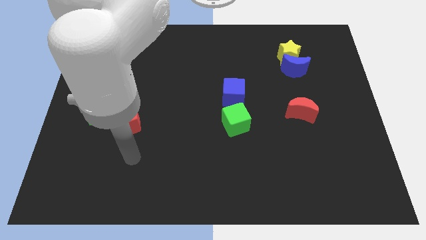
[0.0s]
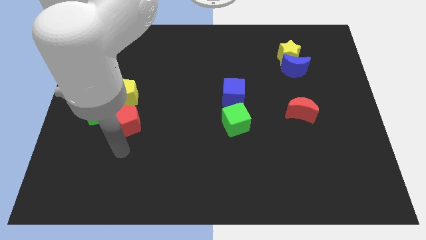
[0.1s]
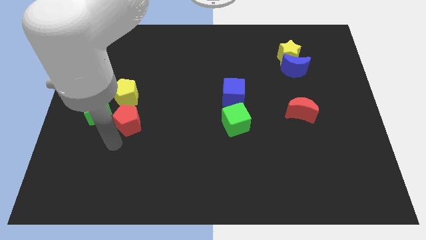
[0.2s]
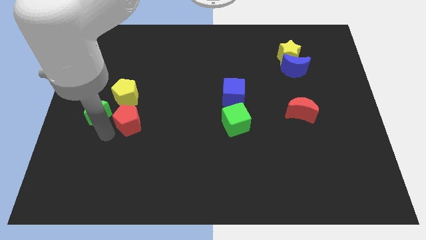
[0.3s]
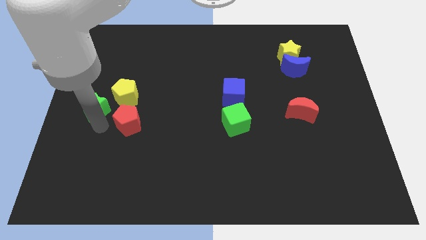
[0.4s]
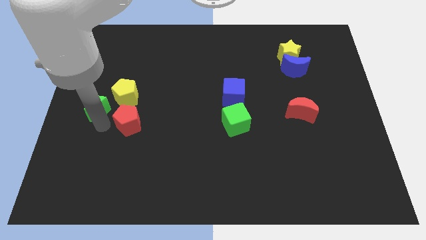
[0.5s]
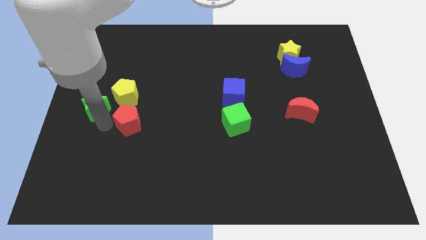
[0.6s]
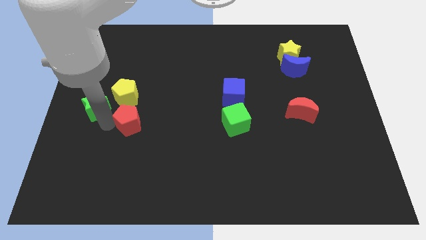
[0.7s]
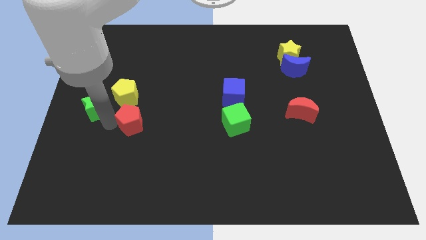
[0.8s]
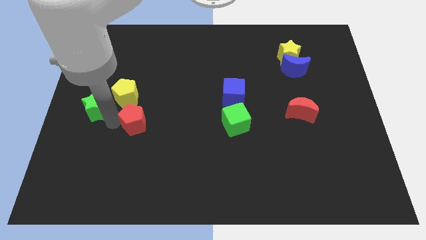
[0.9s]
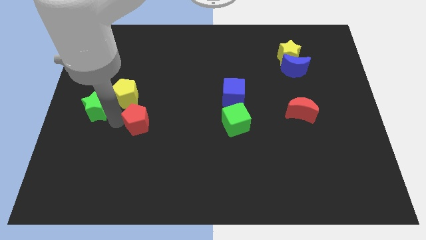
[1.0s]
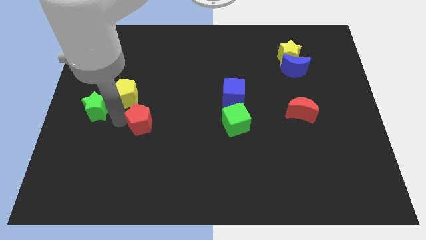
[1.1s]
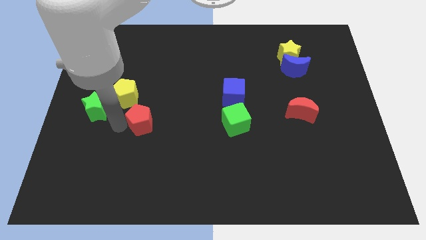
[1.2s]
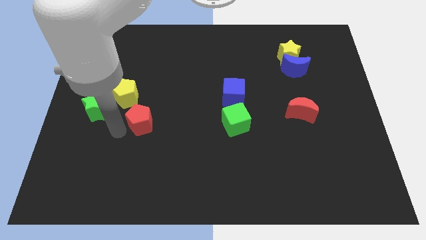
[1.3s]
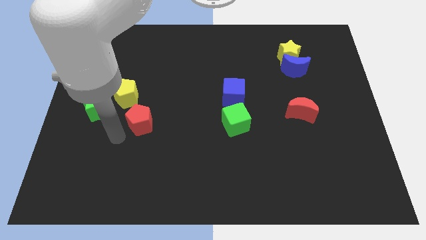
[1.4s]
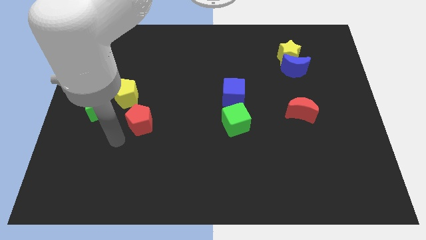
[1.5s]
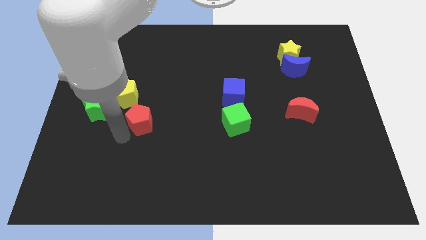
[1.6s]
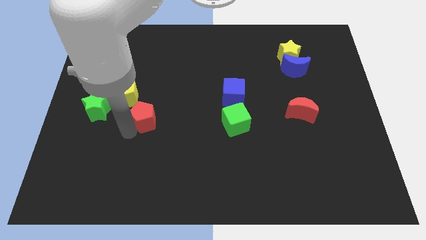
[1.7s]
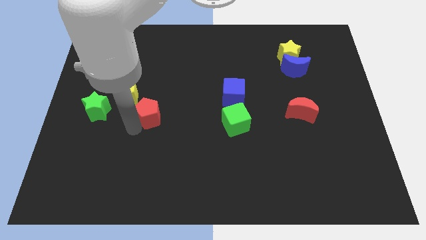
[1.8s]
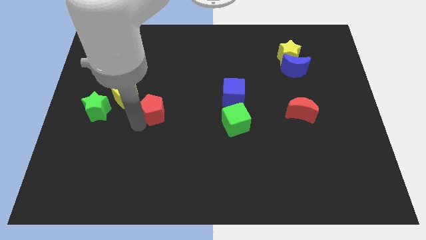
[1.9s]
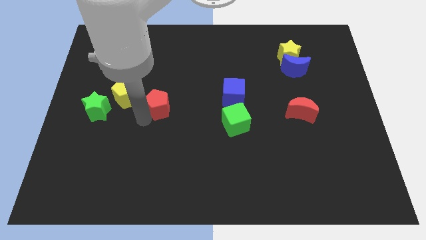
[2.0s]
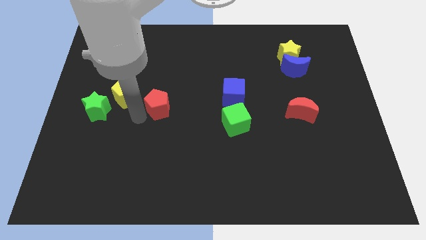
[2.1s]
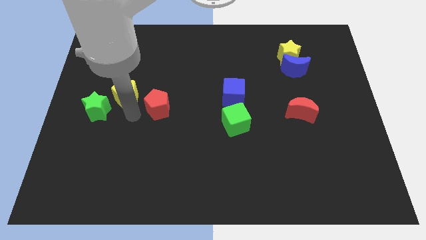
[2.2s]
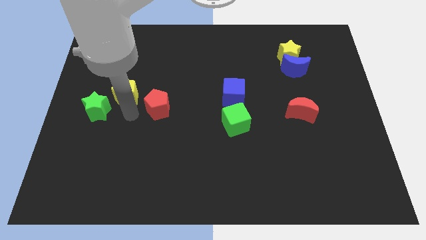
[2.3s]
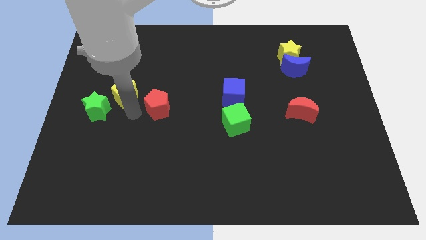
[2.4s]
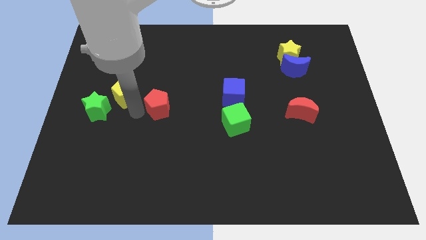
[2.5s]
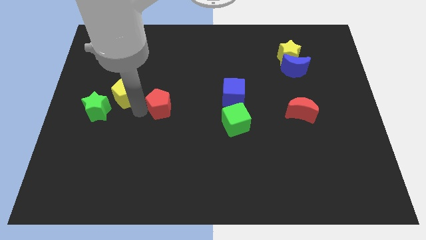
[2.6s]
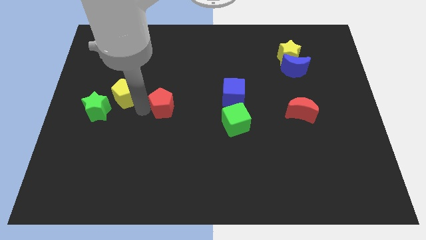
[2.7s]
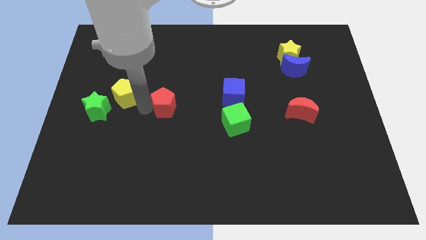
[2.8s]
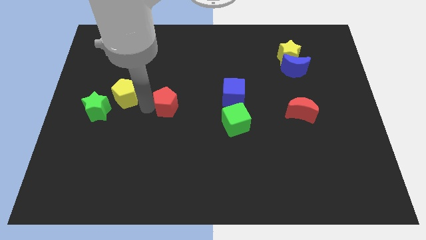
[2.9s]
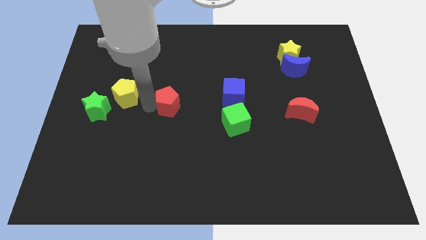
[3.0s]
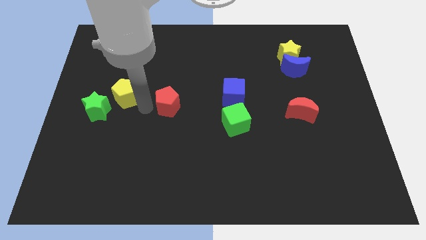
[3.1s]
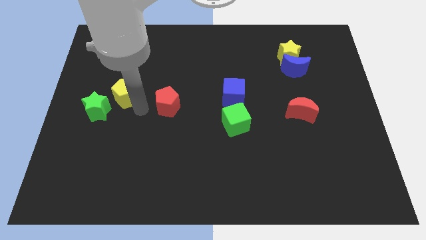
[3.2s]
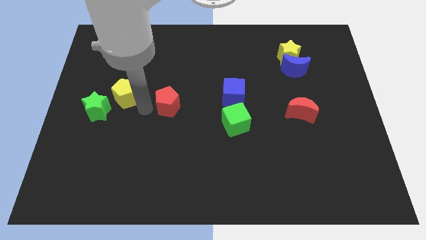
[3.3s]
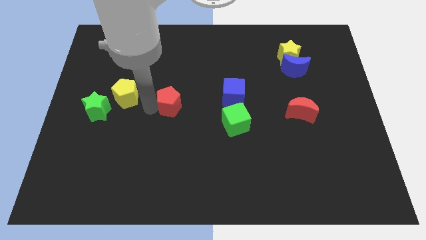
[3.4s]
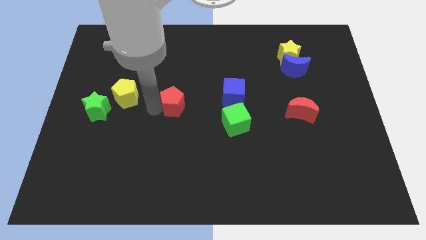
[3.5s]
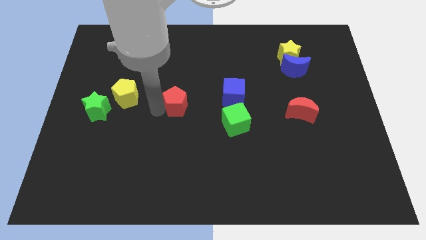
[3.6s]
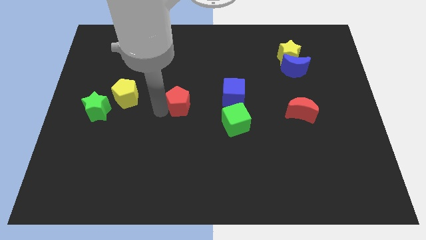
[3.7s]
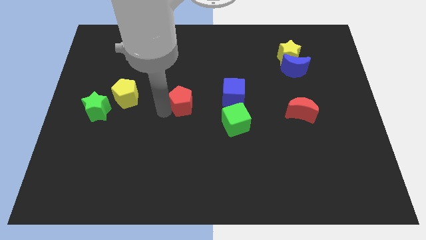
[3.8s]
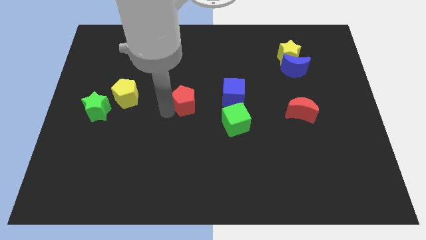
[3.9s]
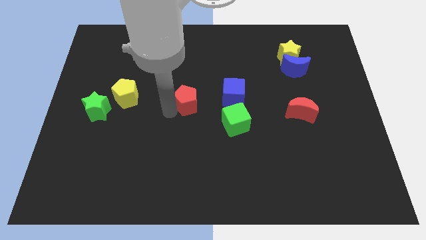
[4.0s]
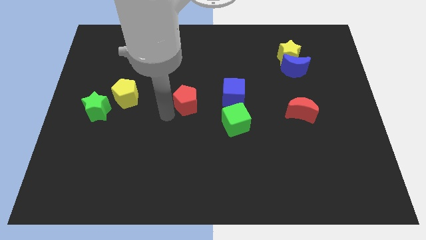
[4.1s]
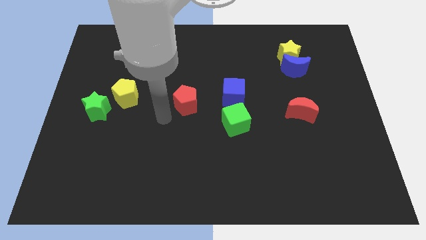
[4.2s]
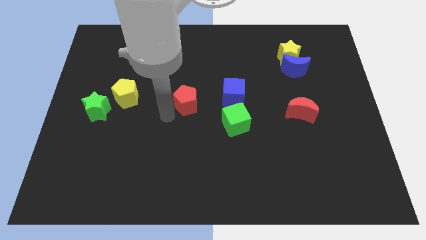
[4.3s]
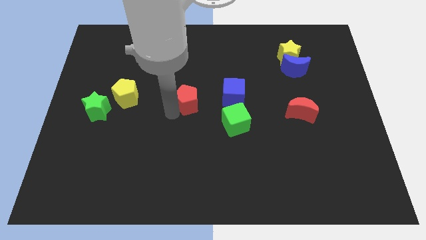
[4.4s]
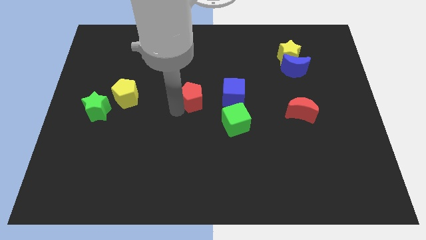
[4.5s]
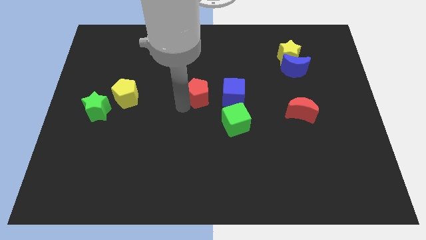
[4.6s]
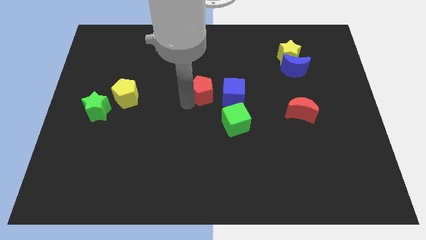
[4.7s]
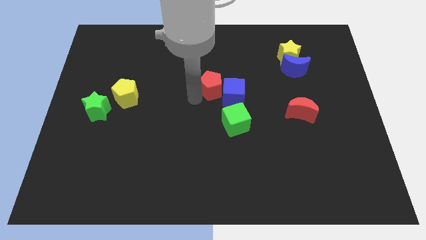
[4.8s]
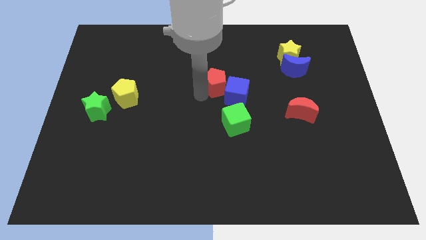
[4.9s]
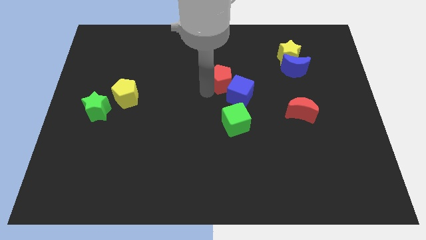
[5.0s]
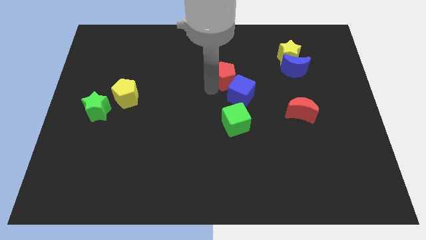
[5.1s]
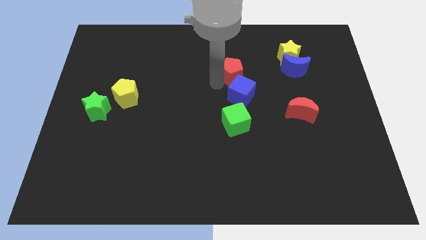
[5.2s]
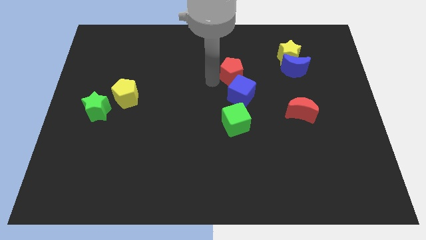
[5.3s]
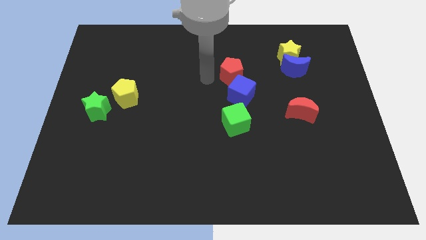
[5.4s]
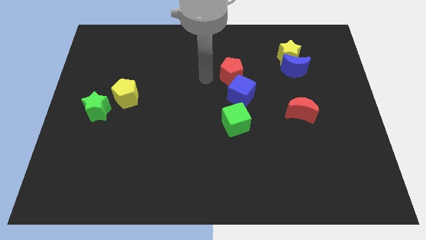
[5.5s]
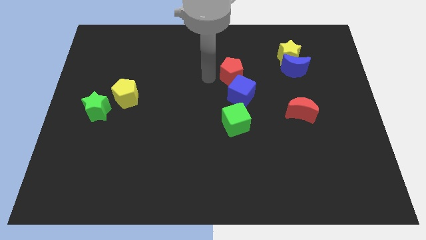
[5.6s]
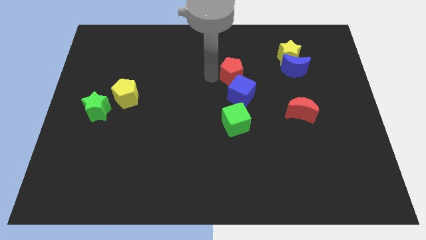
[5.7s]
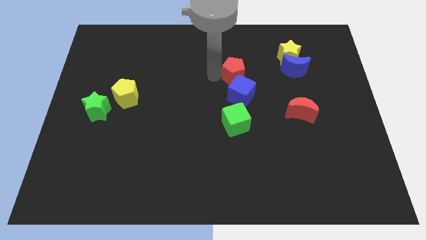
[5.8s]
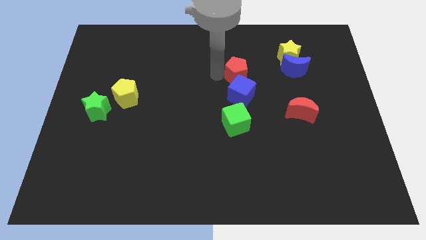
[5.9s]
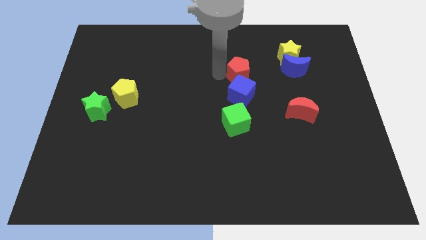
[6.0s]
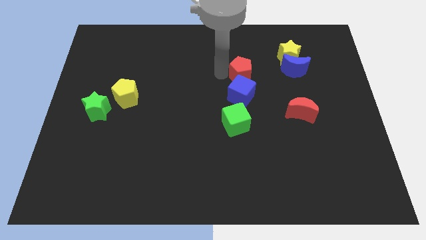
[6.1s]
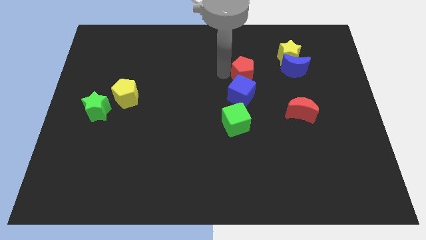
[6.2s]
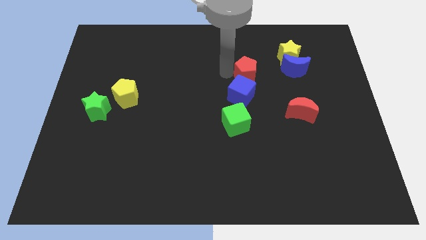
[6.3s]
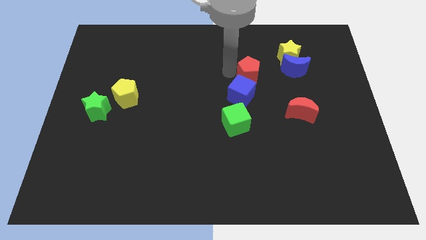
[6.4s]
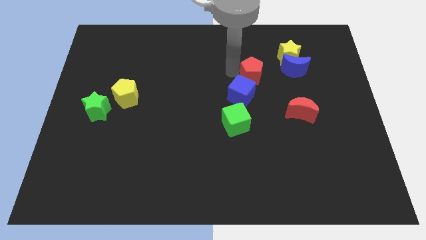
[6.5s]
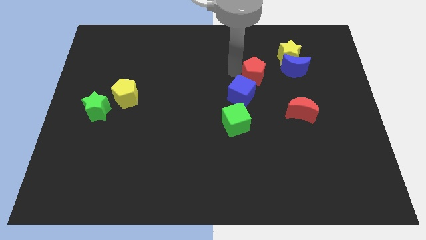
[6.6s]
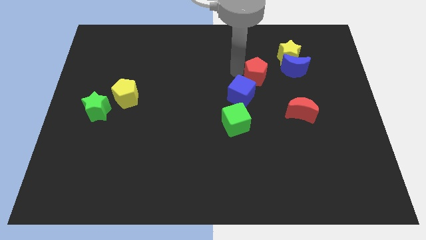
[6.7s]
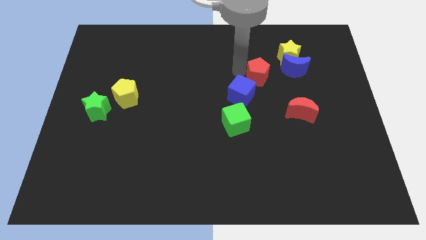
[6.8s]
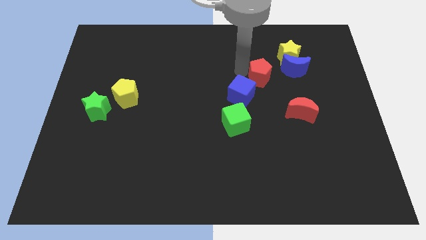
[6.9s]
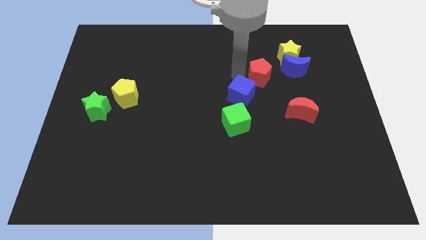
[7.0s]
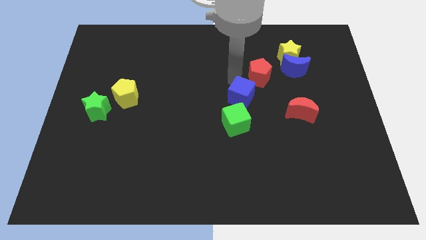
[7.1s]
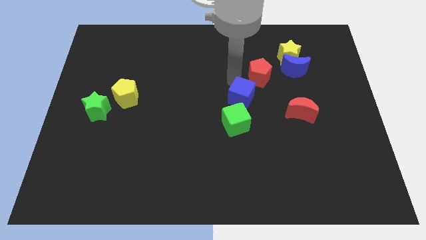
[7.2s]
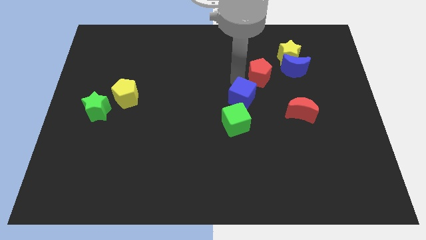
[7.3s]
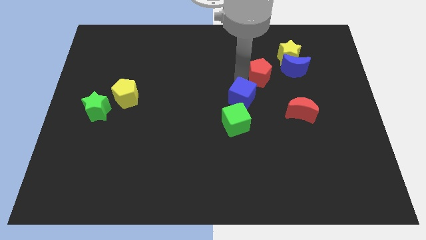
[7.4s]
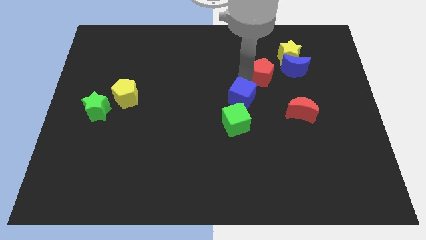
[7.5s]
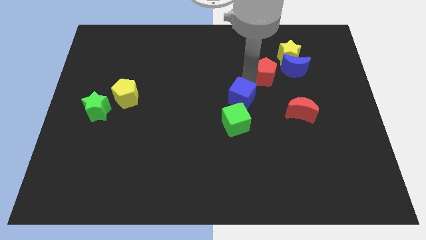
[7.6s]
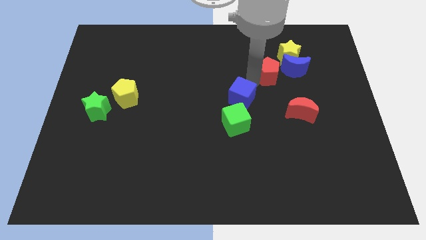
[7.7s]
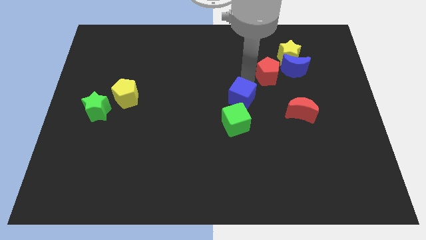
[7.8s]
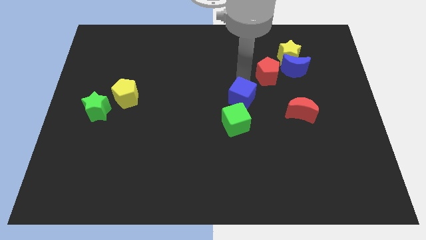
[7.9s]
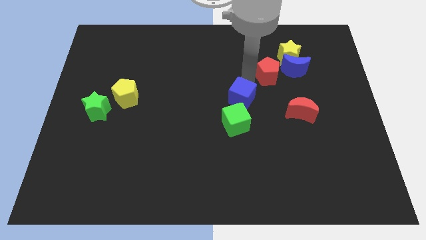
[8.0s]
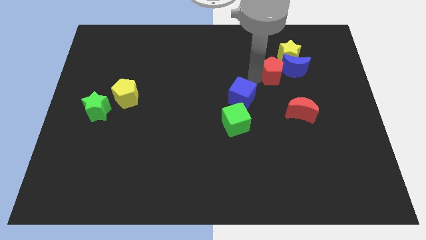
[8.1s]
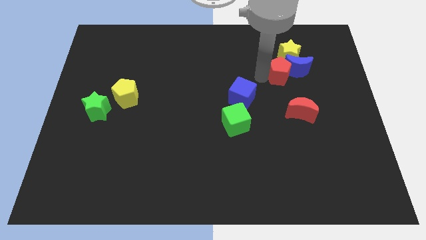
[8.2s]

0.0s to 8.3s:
move the red pentagon close to the blue moon

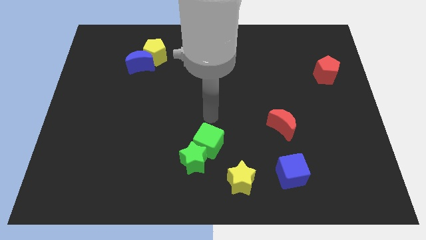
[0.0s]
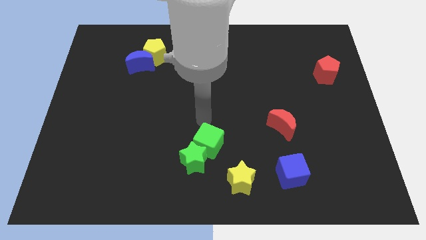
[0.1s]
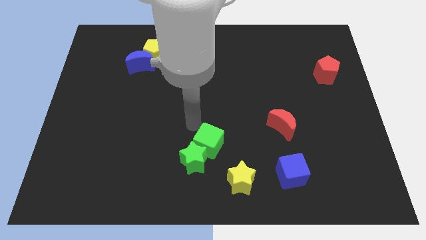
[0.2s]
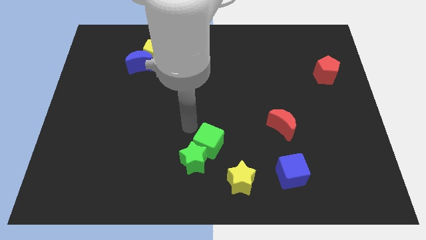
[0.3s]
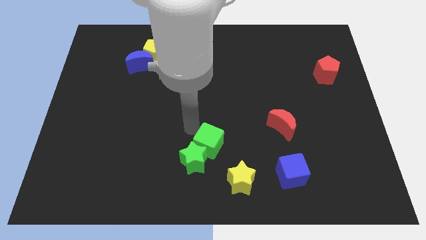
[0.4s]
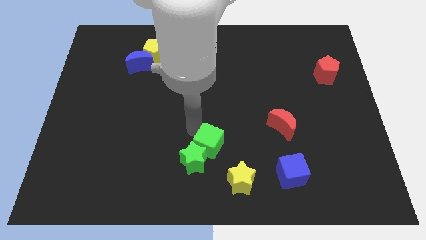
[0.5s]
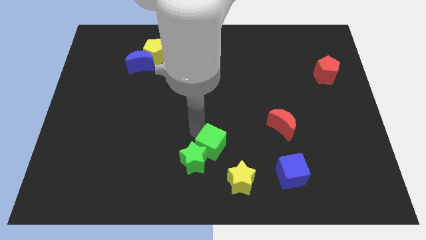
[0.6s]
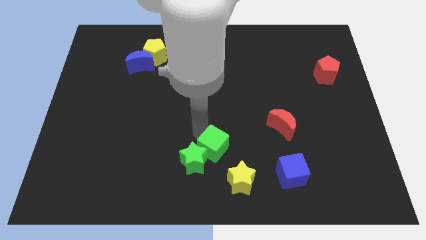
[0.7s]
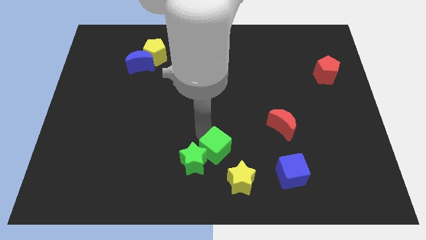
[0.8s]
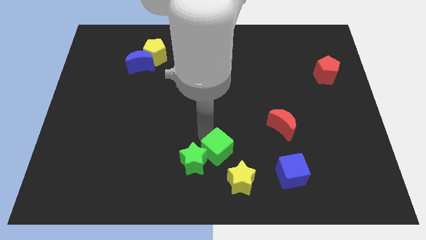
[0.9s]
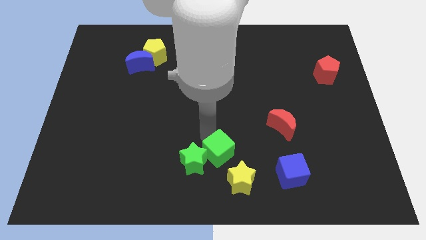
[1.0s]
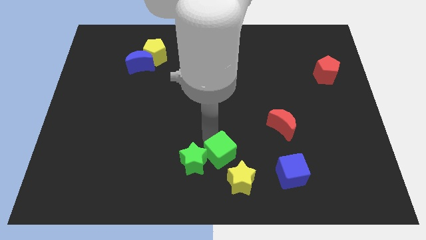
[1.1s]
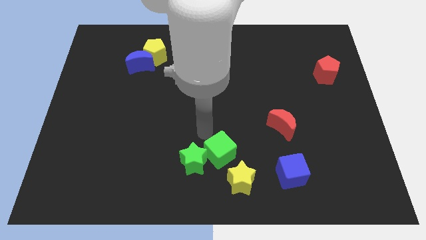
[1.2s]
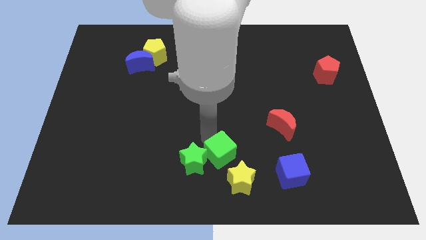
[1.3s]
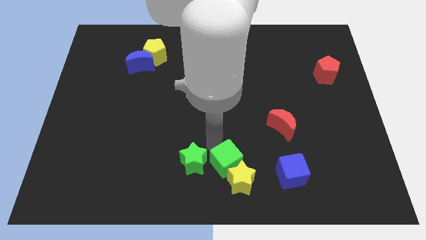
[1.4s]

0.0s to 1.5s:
push the green cube next to the yellow star
